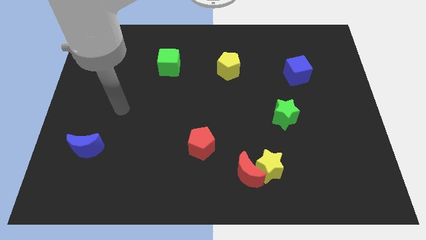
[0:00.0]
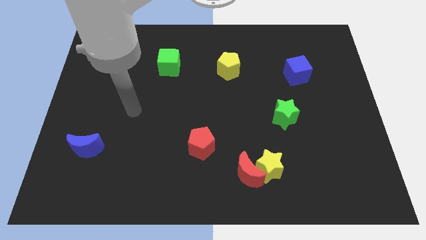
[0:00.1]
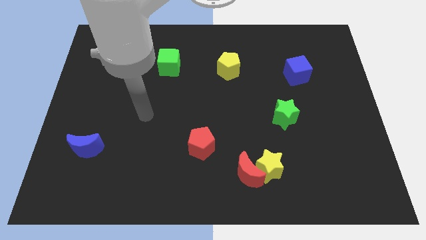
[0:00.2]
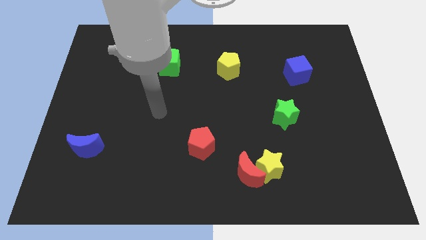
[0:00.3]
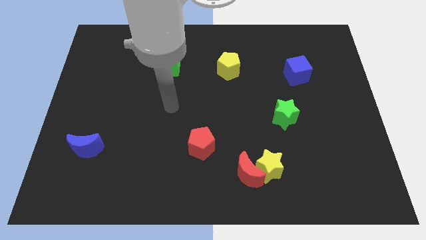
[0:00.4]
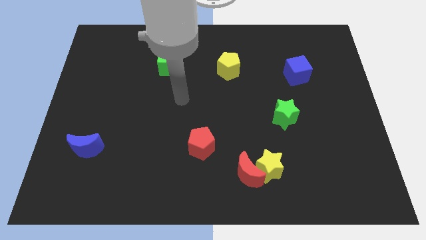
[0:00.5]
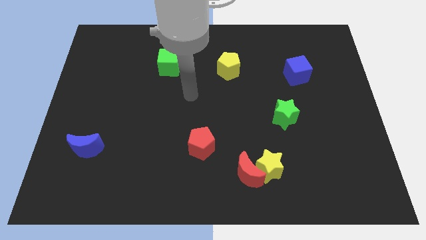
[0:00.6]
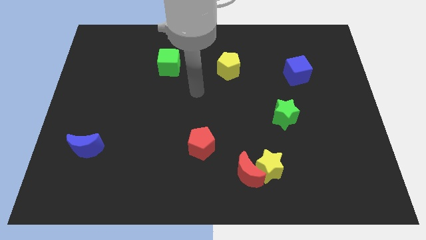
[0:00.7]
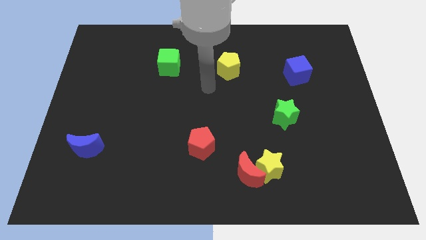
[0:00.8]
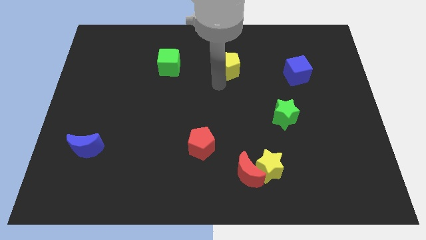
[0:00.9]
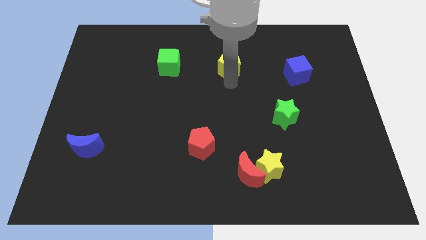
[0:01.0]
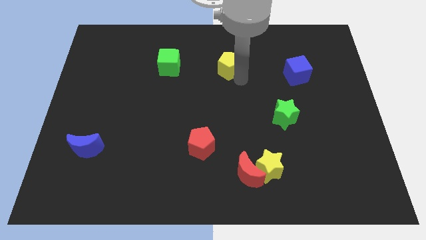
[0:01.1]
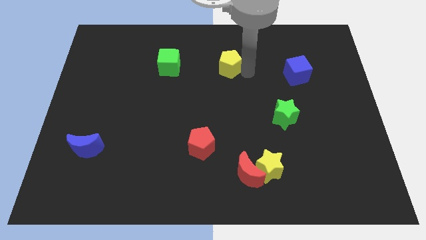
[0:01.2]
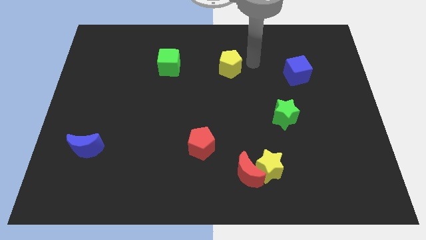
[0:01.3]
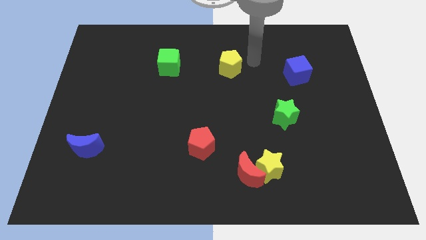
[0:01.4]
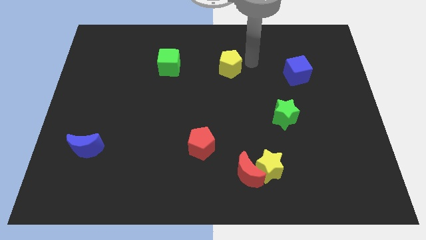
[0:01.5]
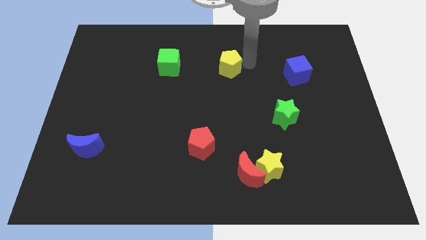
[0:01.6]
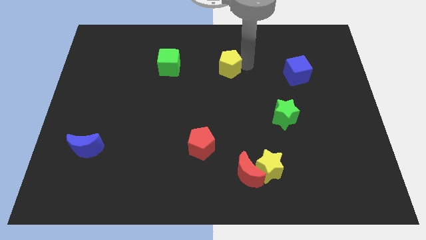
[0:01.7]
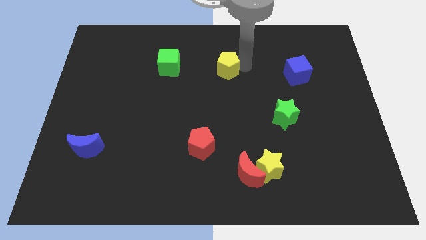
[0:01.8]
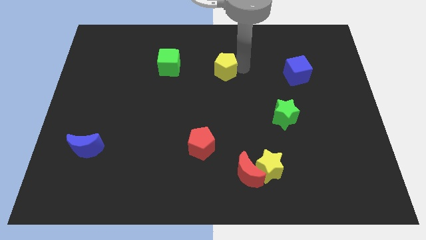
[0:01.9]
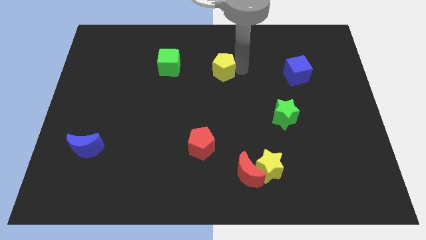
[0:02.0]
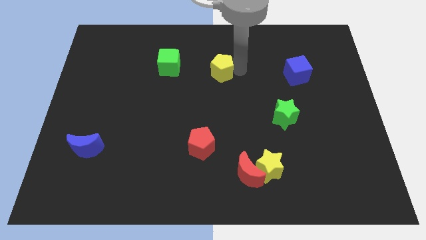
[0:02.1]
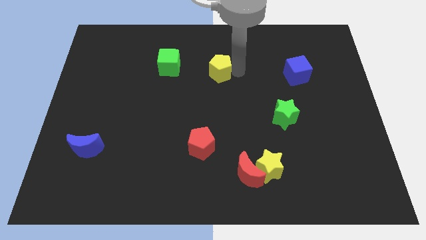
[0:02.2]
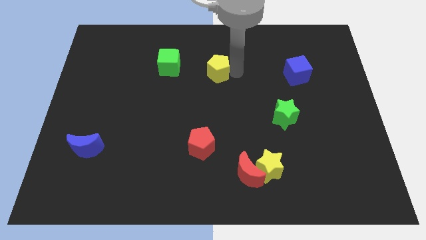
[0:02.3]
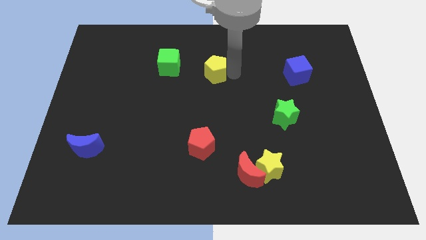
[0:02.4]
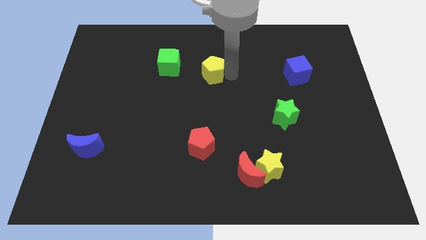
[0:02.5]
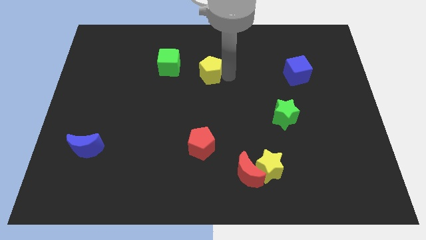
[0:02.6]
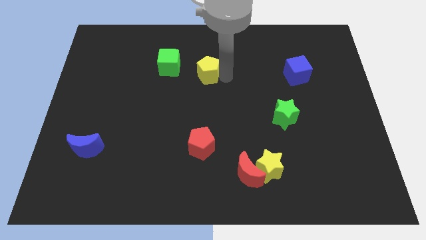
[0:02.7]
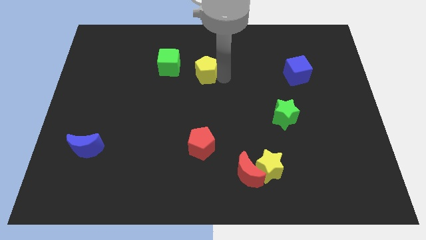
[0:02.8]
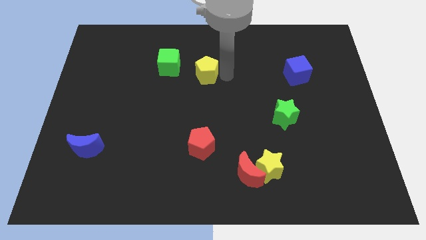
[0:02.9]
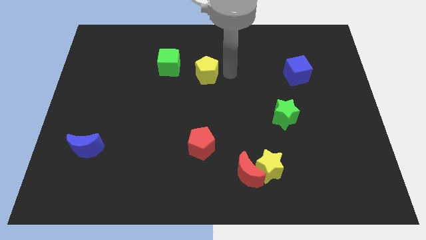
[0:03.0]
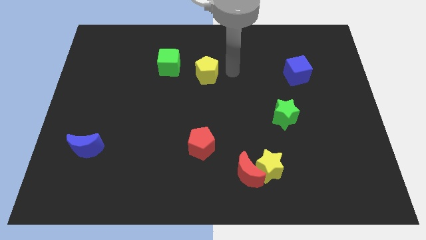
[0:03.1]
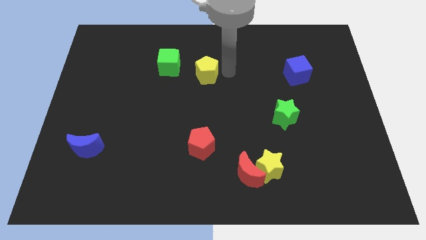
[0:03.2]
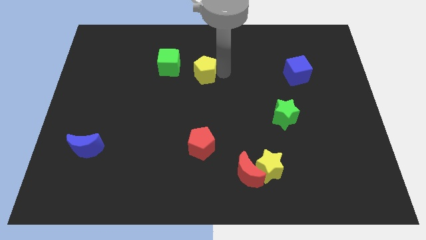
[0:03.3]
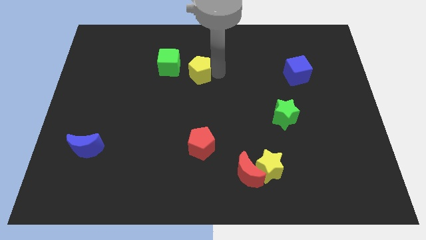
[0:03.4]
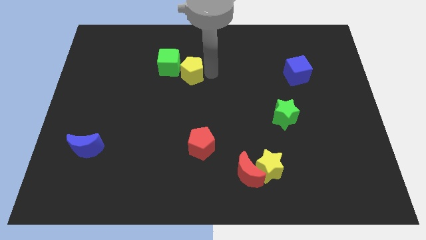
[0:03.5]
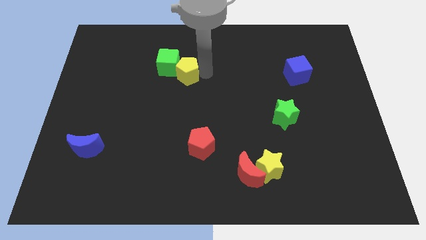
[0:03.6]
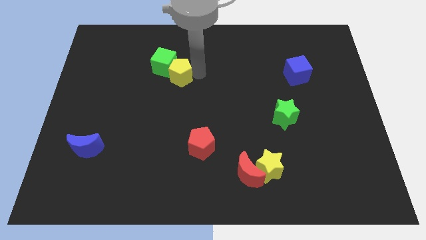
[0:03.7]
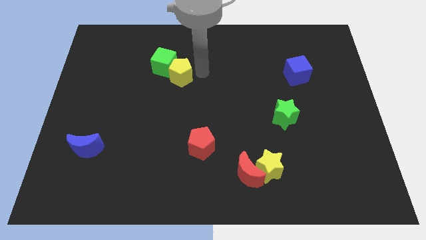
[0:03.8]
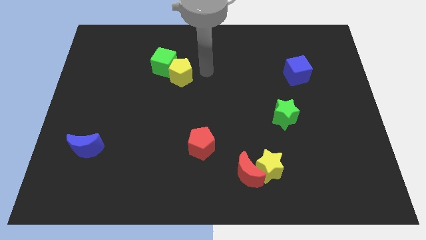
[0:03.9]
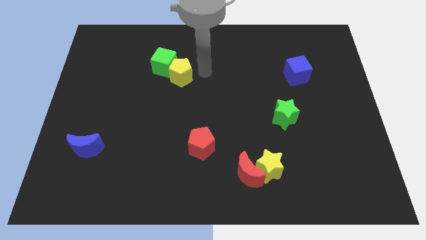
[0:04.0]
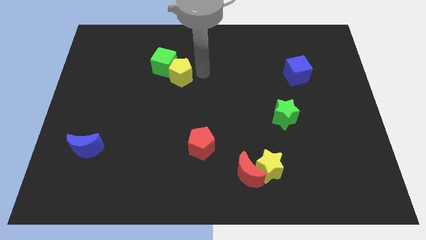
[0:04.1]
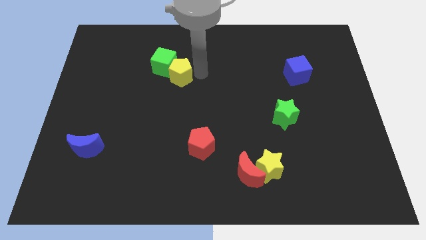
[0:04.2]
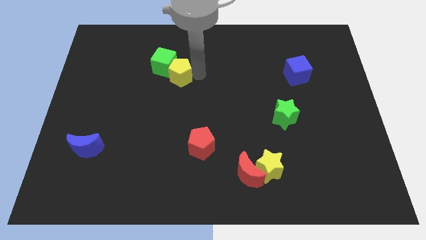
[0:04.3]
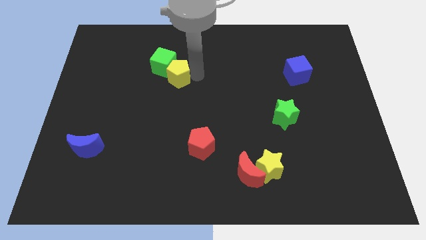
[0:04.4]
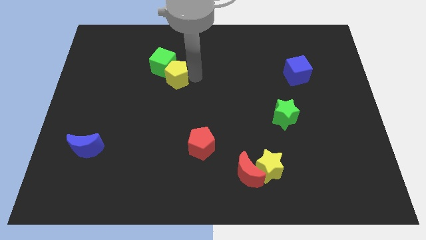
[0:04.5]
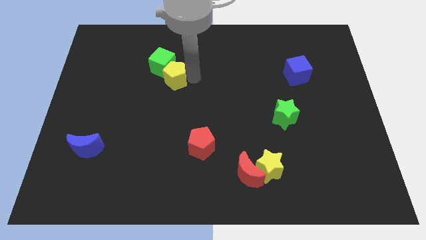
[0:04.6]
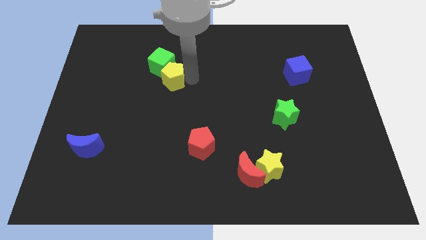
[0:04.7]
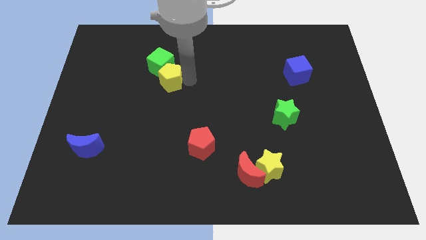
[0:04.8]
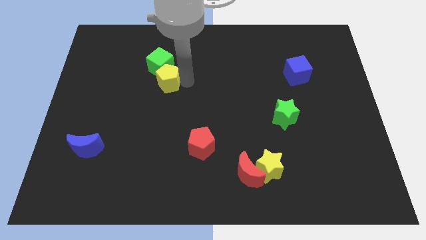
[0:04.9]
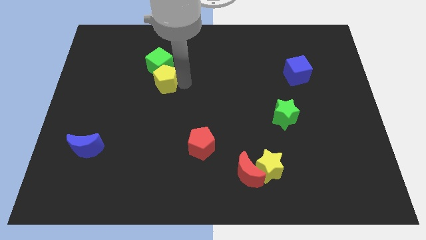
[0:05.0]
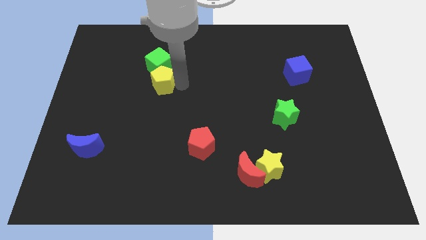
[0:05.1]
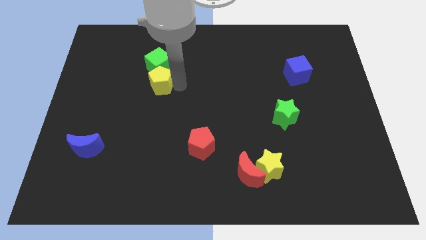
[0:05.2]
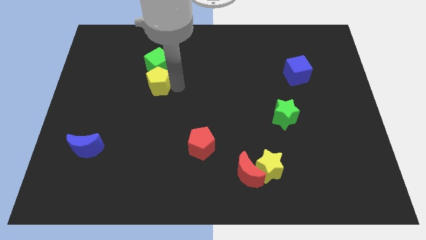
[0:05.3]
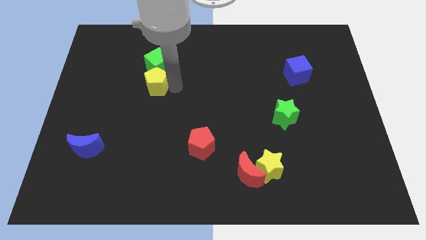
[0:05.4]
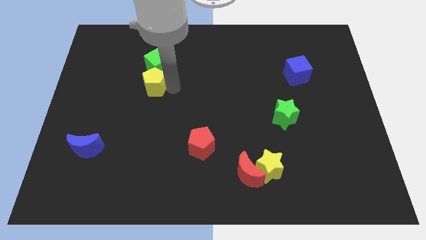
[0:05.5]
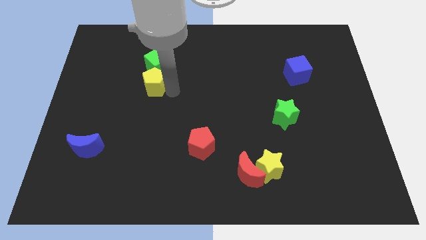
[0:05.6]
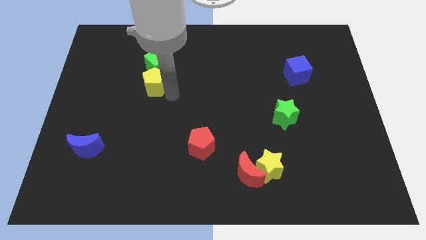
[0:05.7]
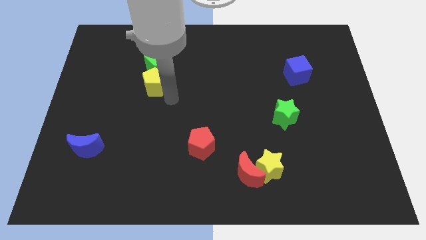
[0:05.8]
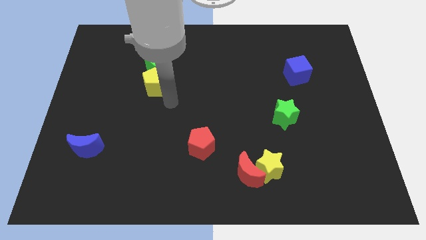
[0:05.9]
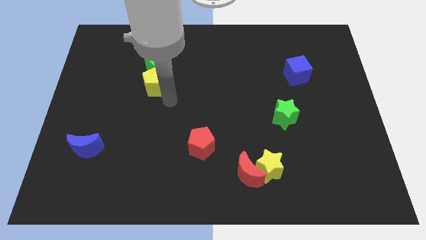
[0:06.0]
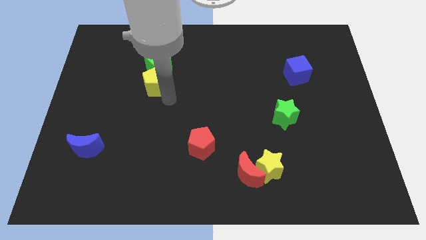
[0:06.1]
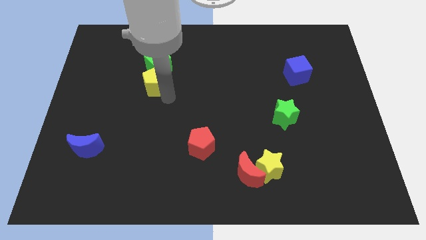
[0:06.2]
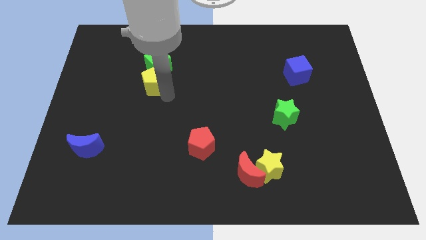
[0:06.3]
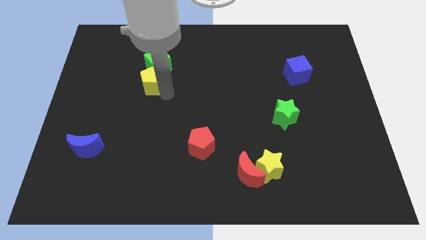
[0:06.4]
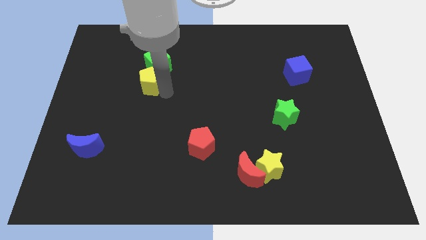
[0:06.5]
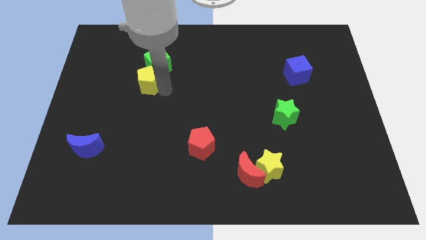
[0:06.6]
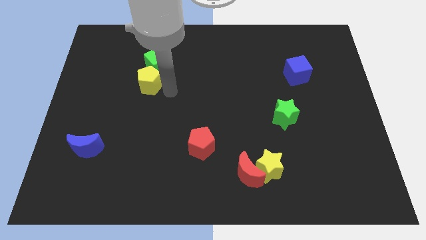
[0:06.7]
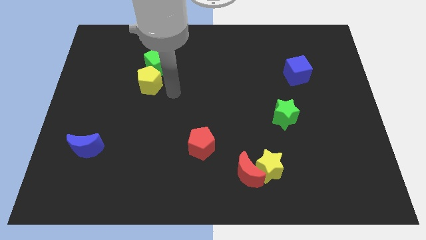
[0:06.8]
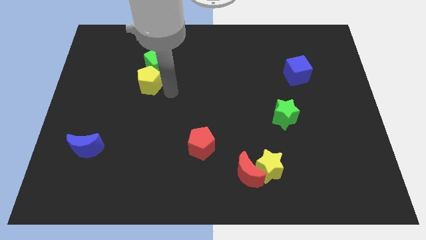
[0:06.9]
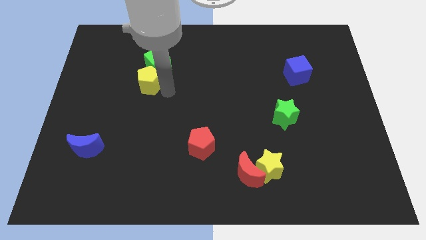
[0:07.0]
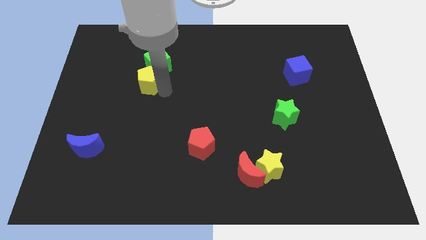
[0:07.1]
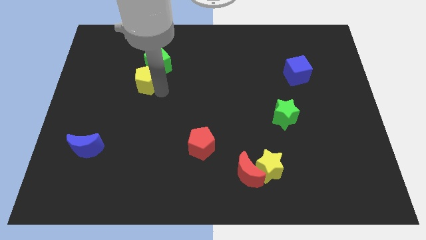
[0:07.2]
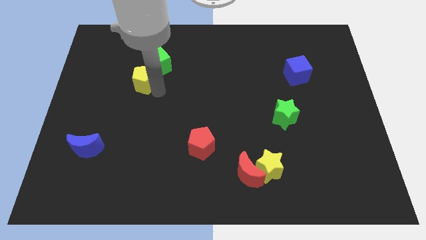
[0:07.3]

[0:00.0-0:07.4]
push the yellow pentagon to the left

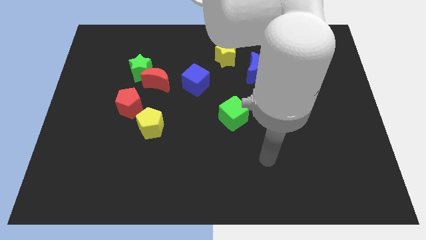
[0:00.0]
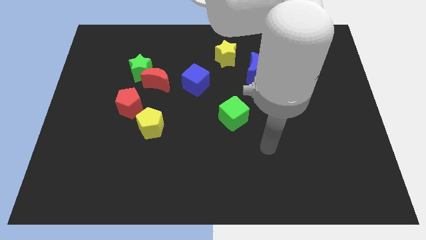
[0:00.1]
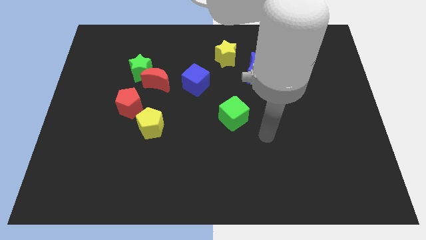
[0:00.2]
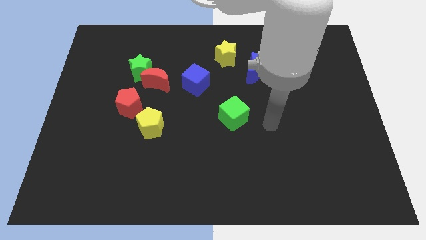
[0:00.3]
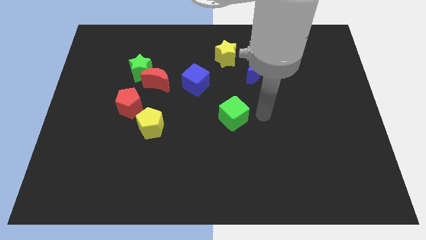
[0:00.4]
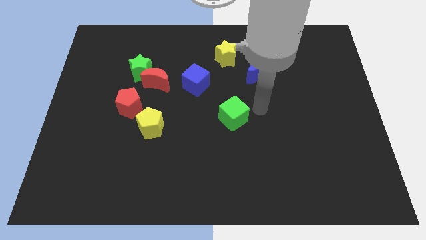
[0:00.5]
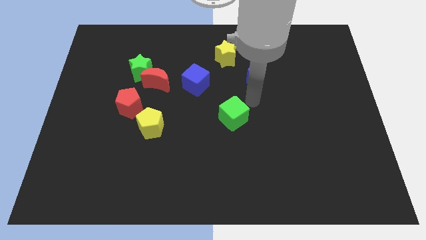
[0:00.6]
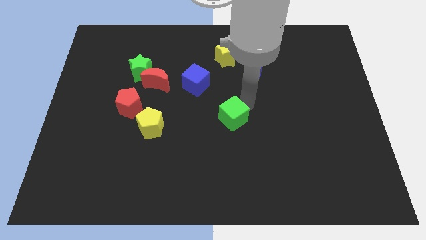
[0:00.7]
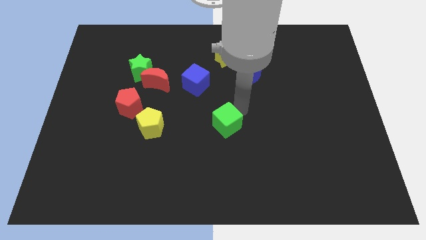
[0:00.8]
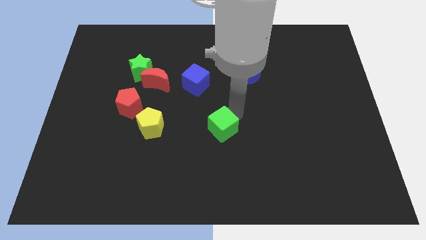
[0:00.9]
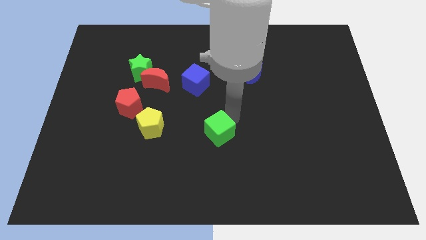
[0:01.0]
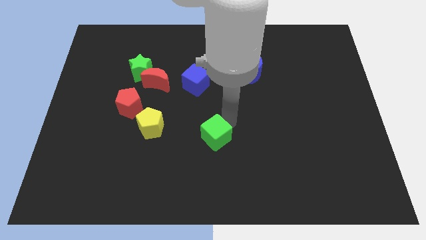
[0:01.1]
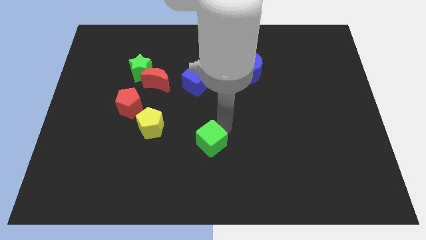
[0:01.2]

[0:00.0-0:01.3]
slightly push the green cube downwards and then to the left

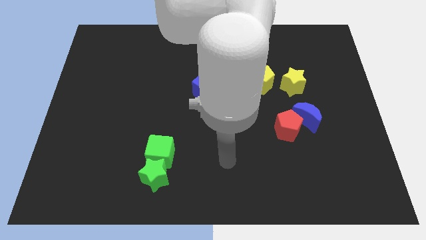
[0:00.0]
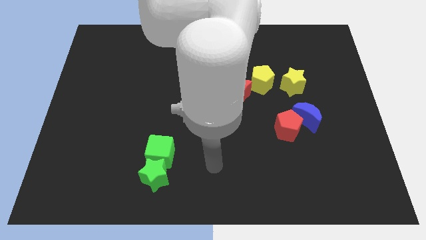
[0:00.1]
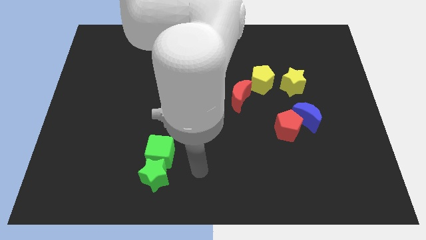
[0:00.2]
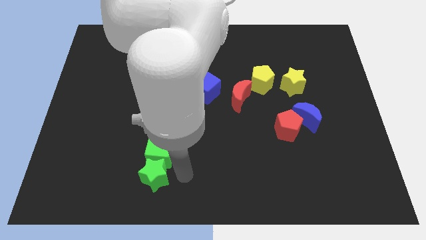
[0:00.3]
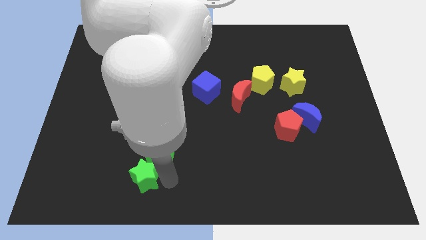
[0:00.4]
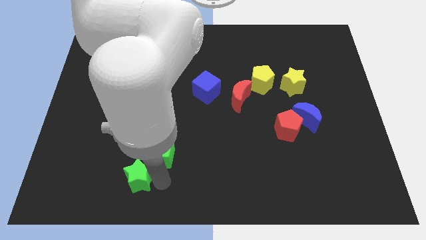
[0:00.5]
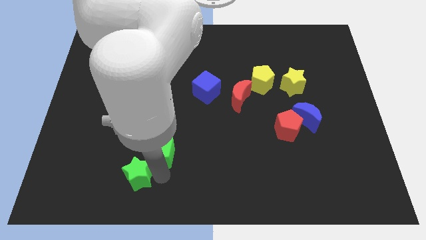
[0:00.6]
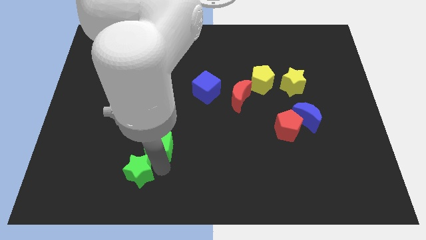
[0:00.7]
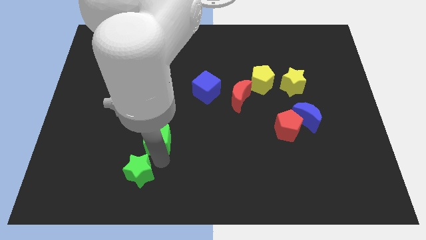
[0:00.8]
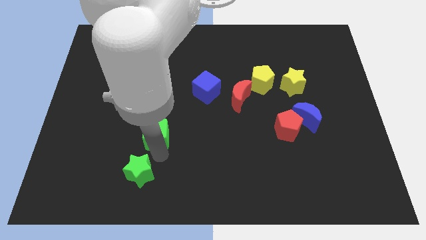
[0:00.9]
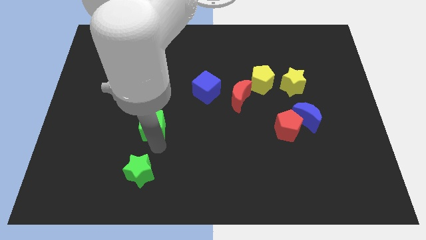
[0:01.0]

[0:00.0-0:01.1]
slightly move the green cube upwards
